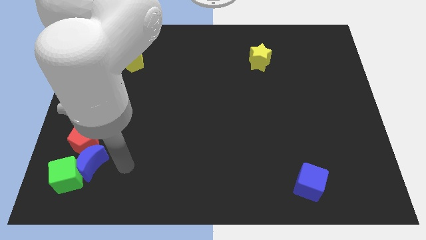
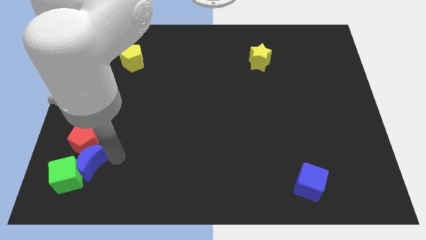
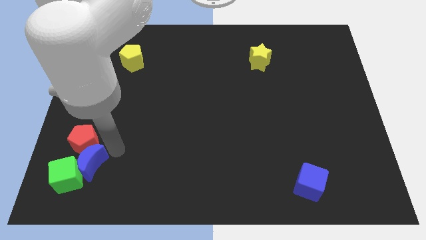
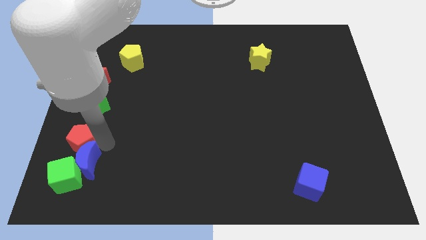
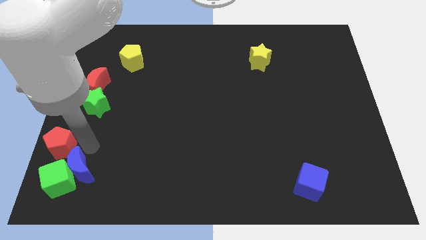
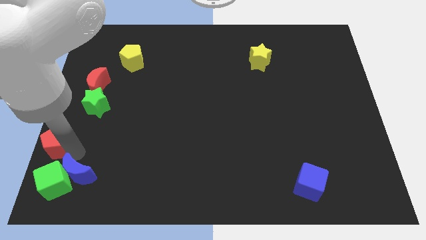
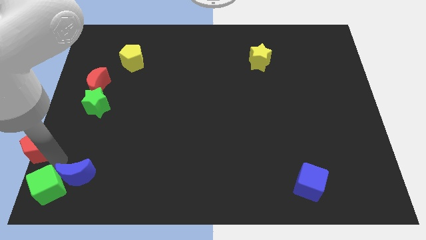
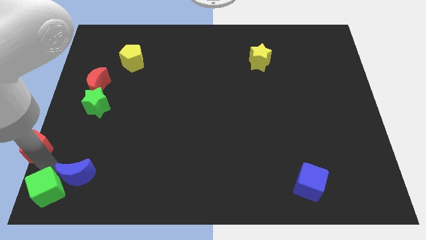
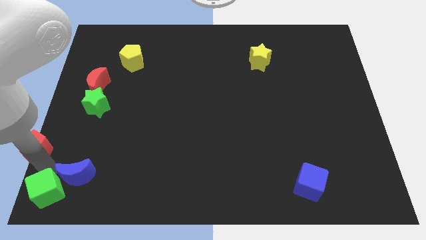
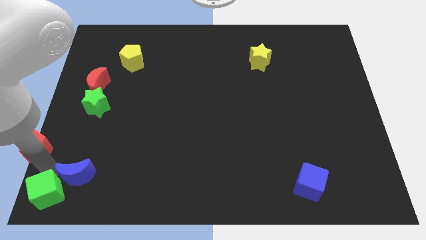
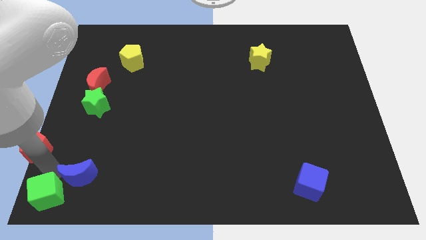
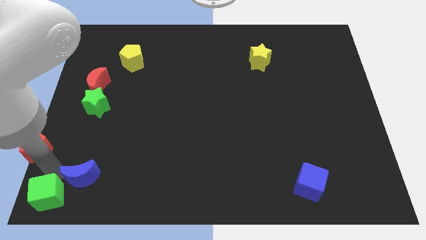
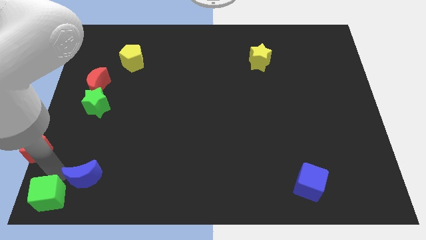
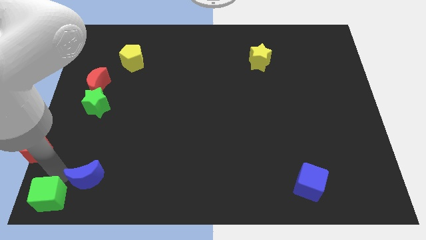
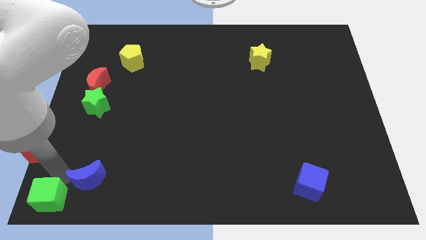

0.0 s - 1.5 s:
move the blue moon away from the green cube and red pentagon

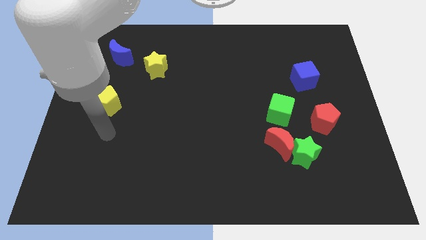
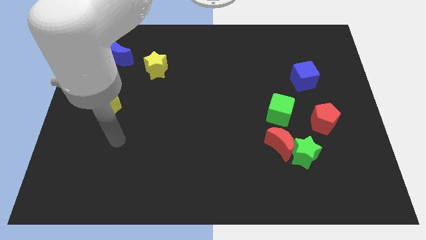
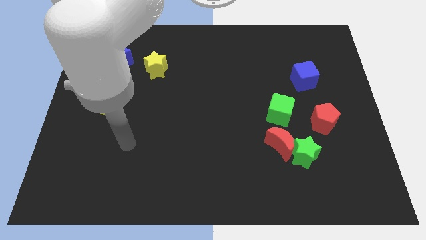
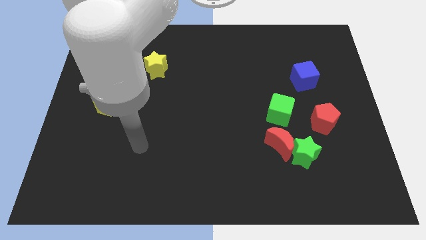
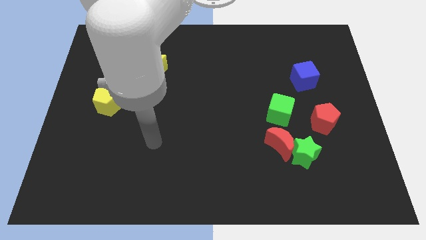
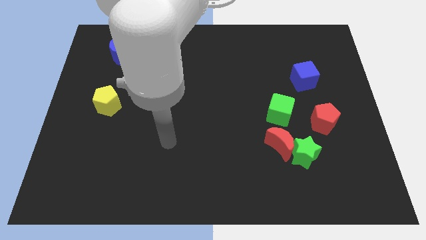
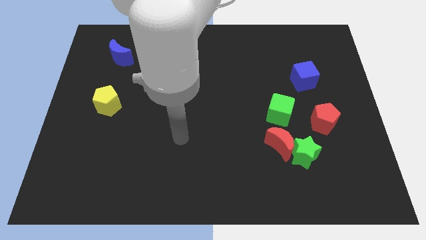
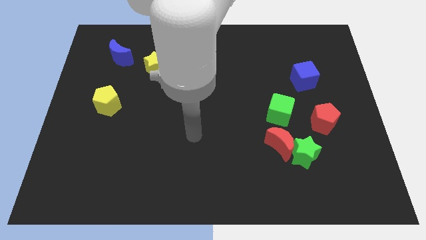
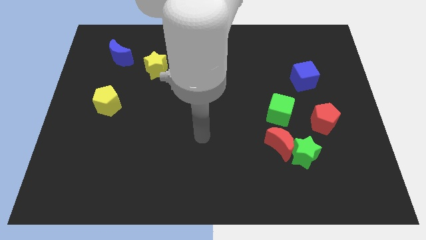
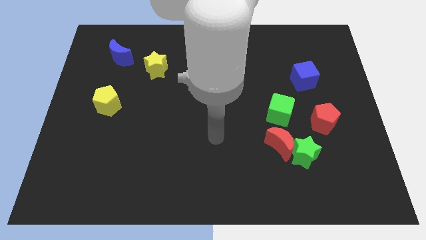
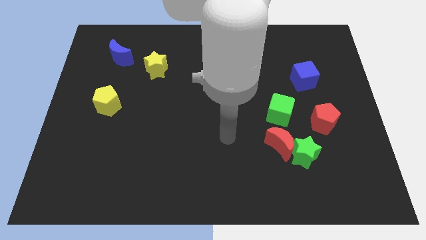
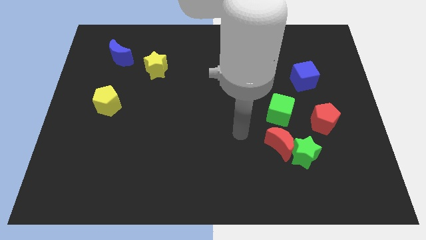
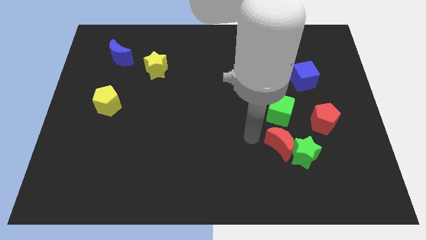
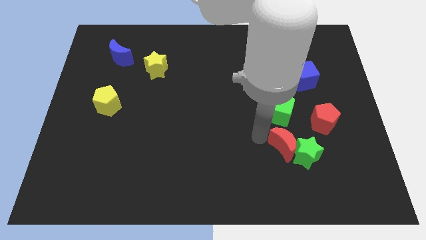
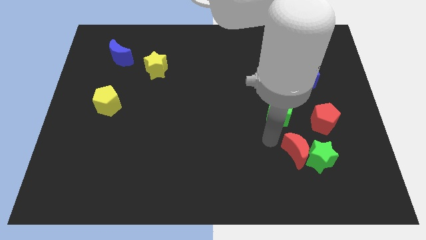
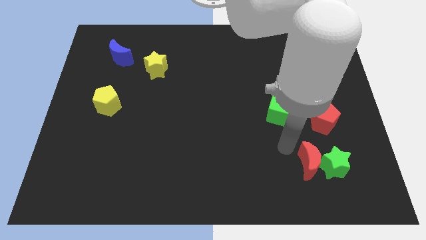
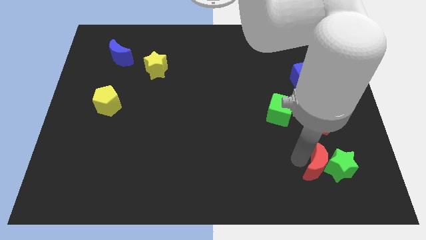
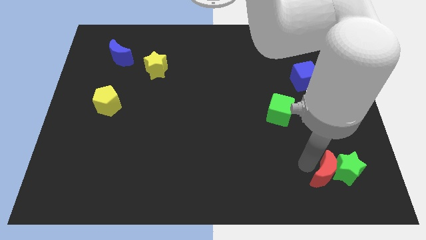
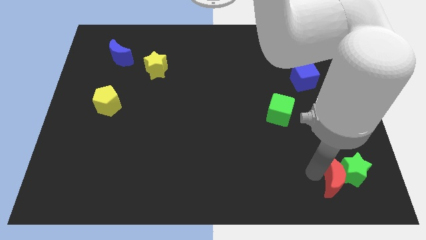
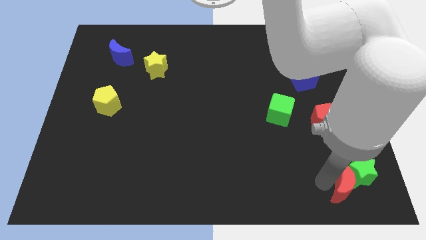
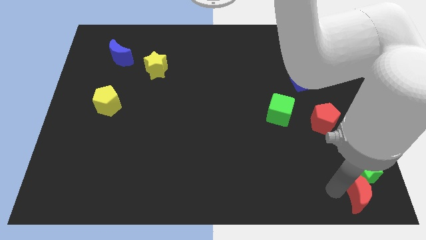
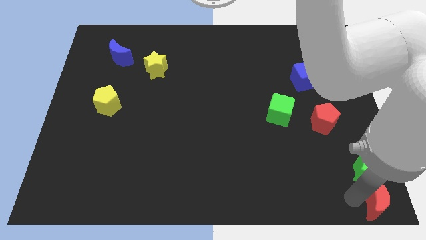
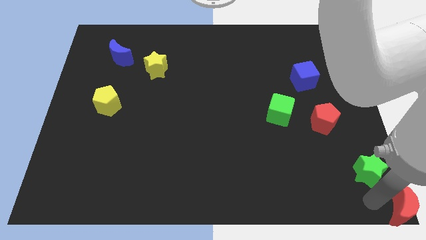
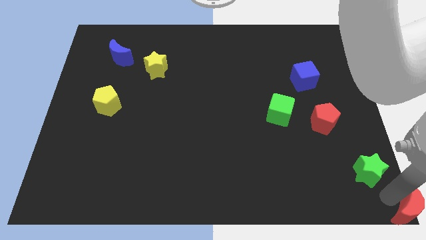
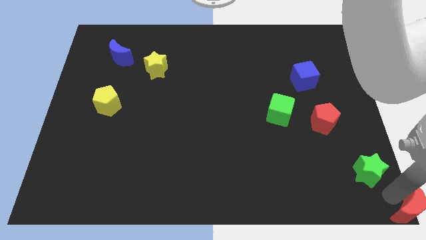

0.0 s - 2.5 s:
pull the green star apart from the red moon

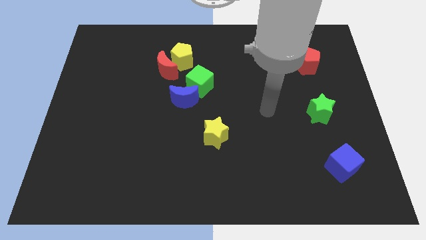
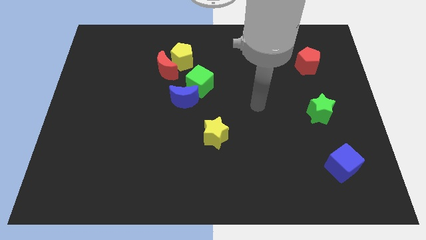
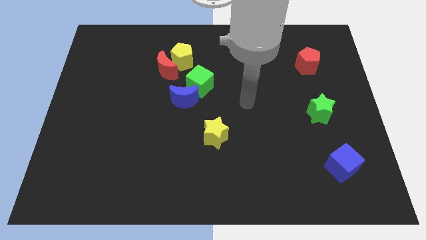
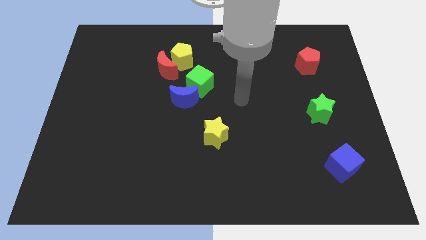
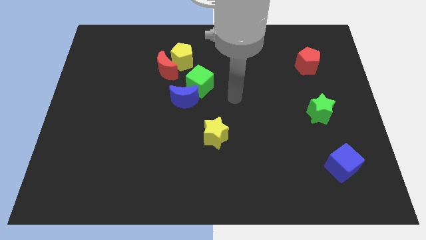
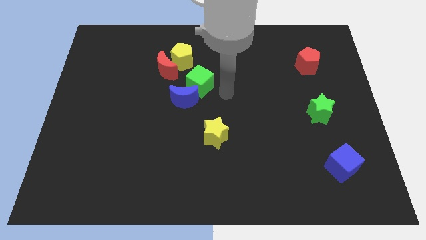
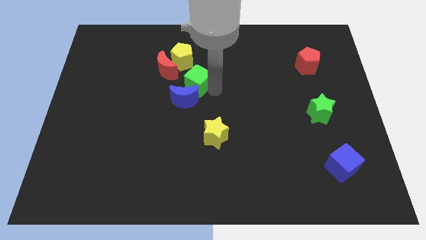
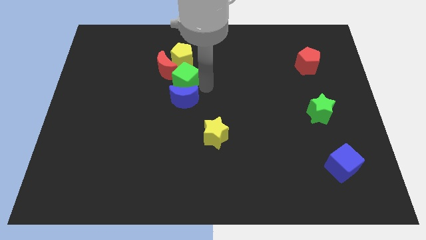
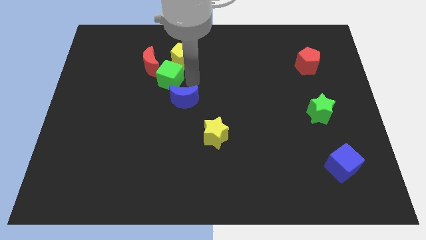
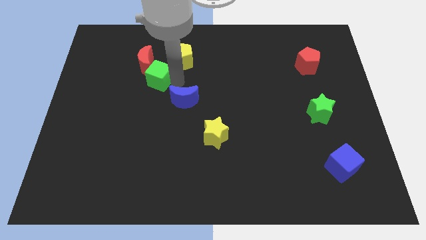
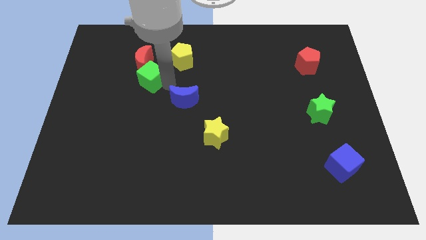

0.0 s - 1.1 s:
separate the blue moon from the green cube

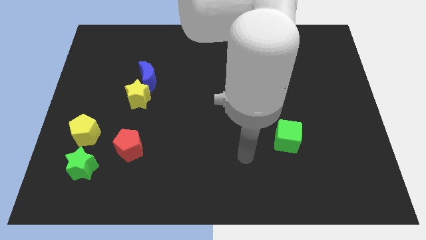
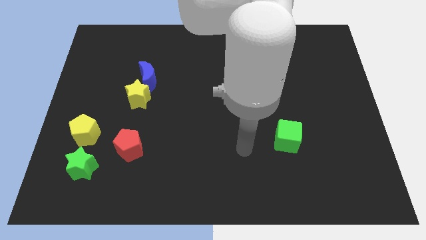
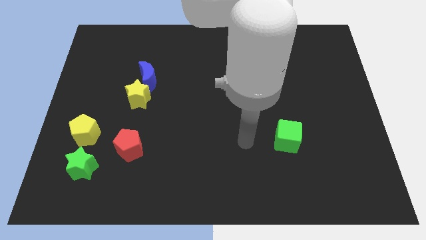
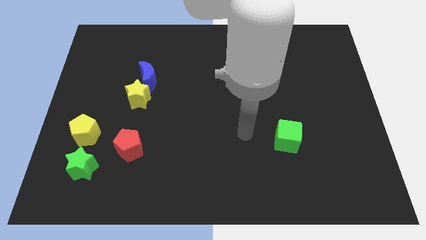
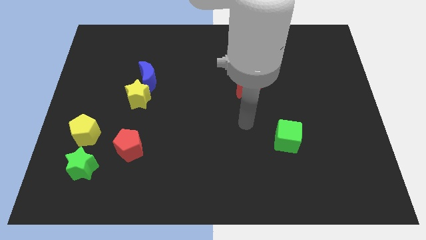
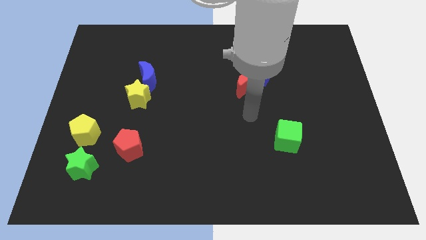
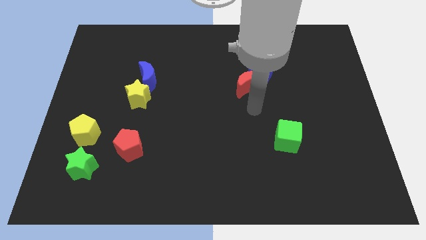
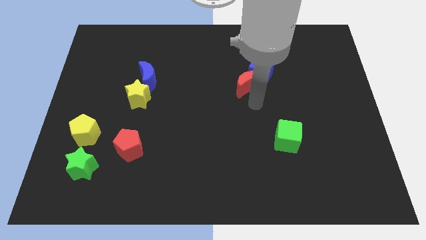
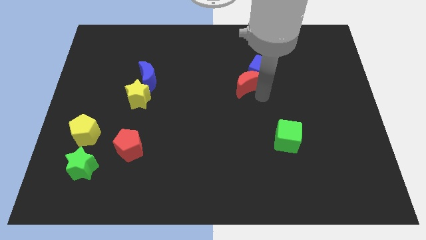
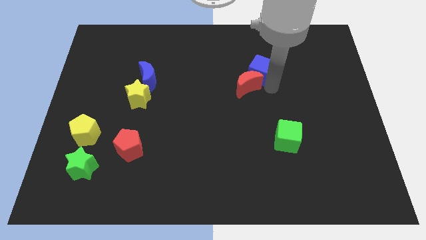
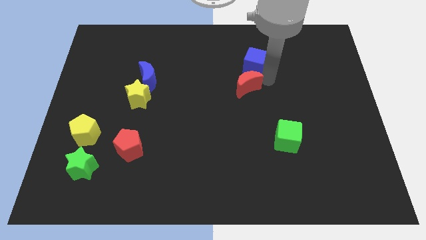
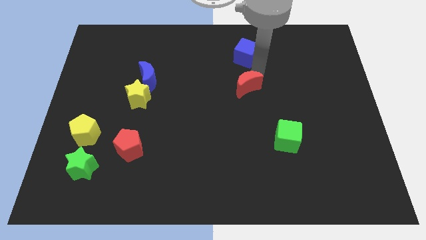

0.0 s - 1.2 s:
move the red moon away from the blue cube

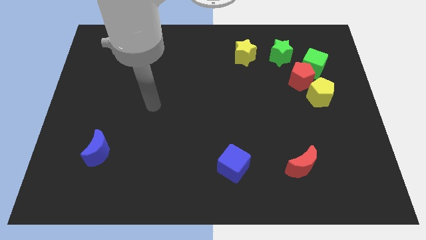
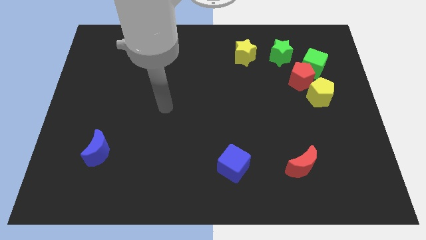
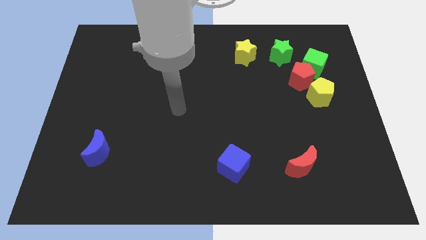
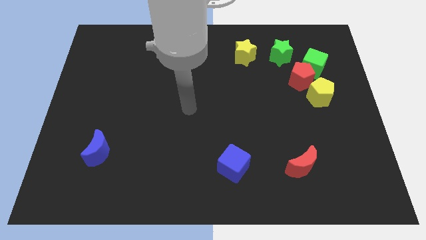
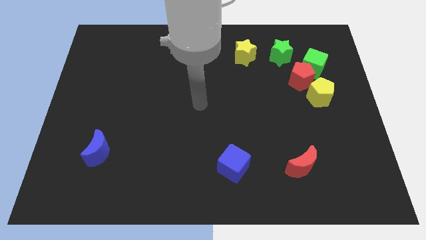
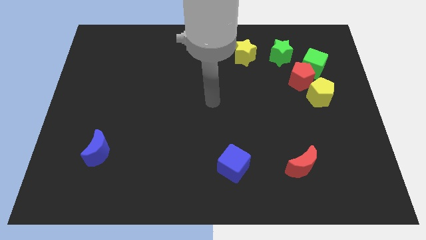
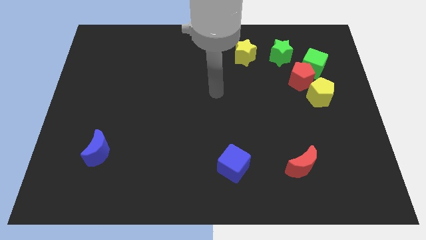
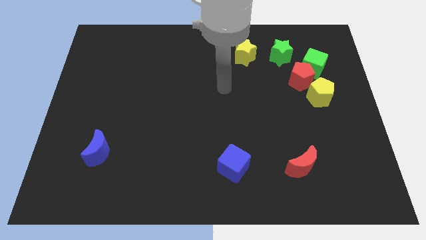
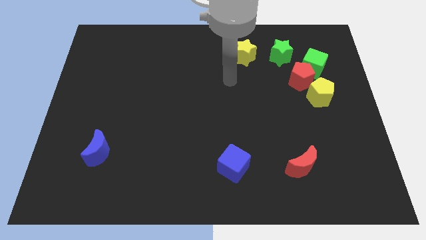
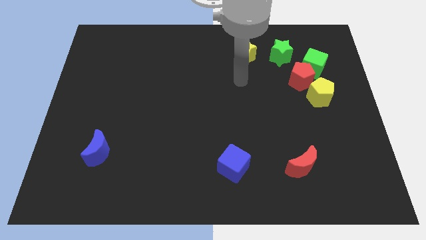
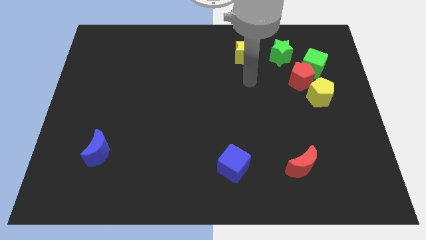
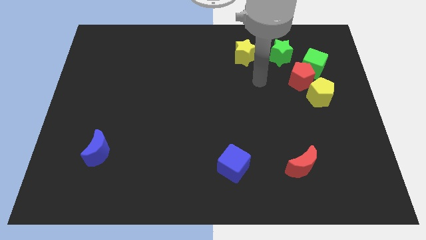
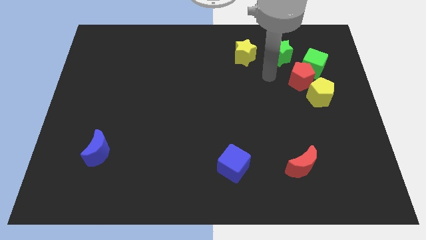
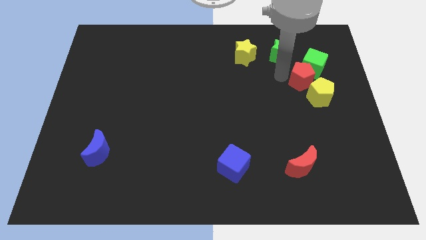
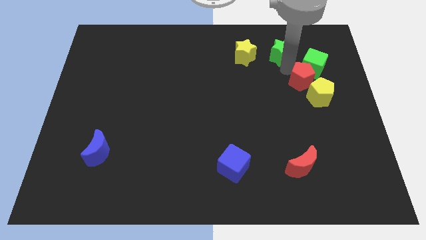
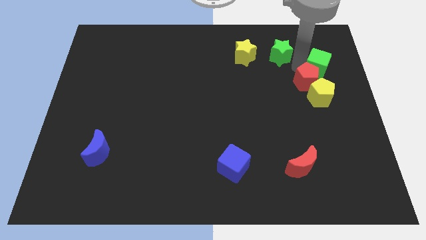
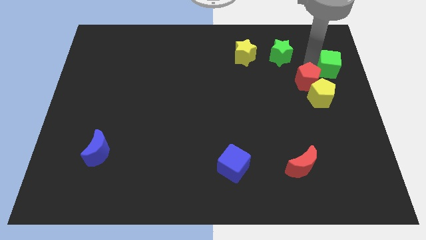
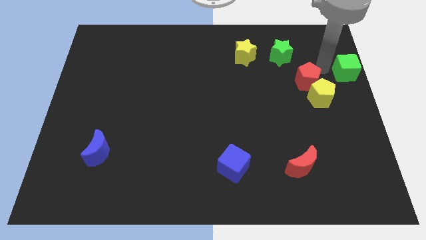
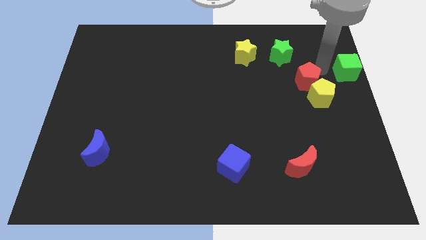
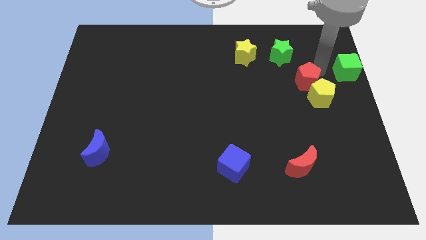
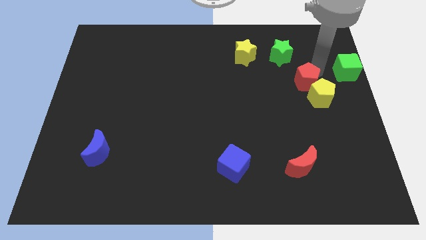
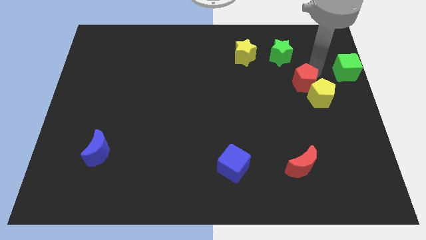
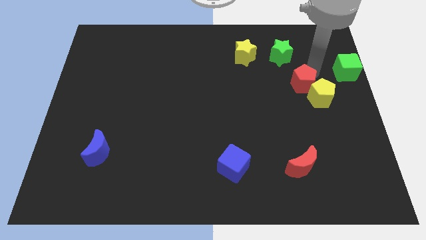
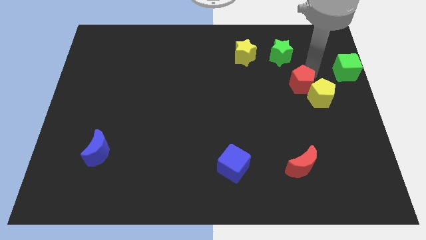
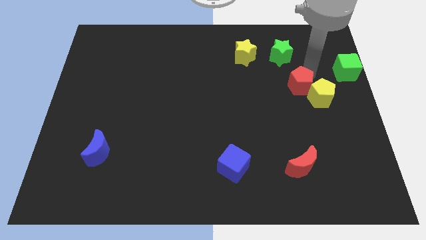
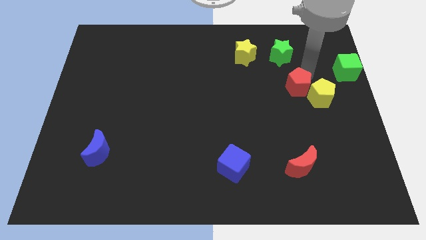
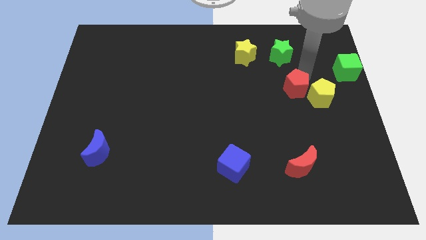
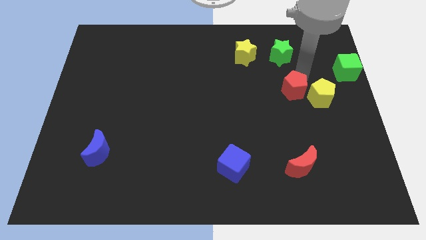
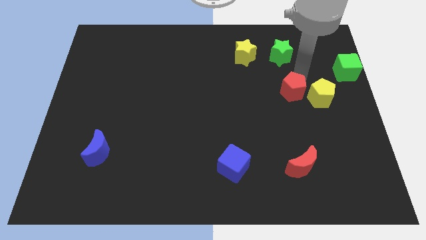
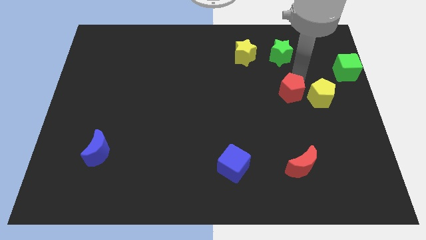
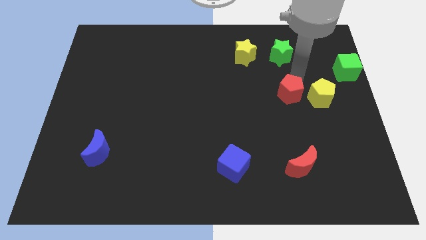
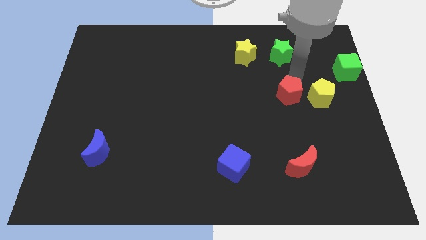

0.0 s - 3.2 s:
pull the red pentagon apart from the green cube, yellow pentagon, and green star
